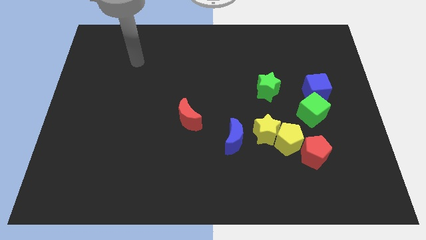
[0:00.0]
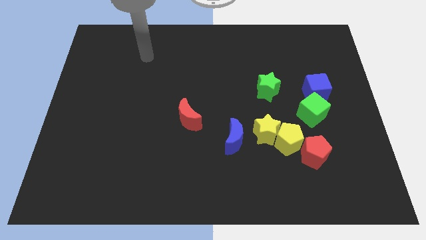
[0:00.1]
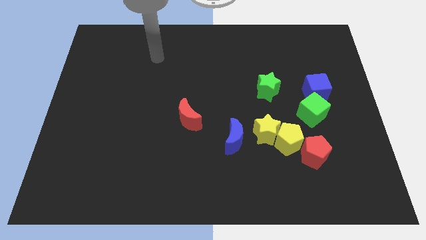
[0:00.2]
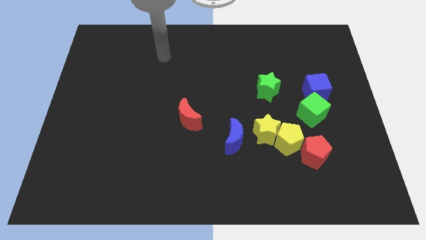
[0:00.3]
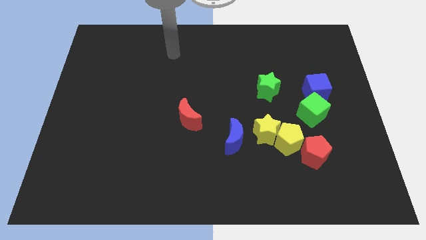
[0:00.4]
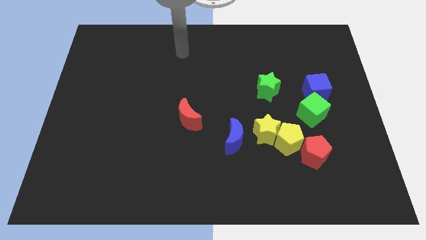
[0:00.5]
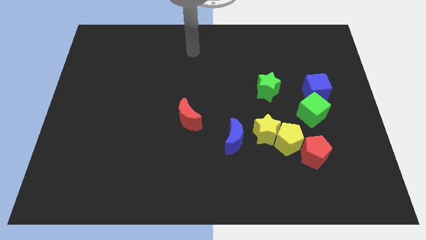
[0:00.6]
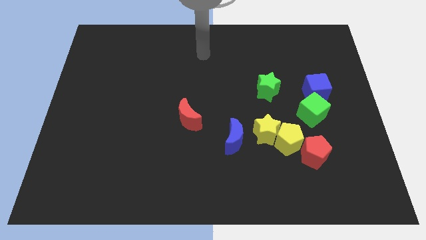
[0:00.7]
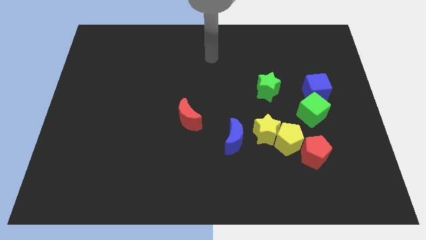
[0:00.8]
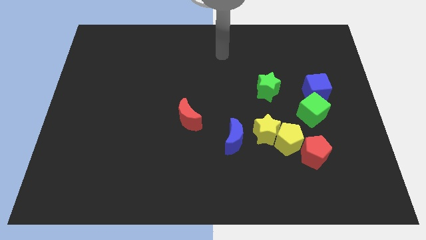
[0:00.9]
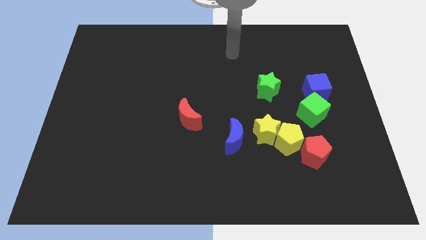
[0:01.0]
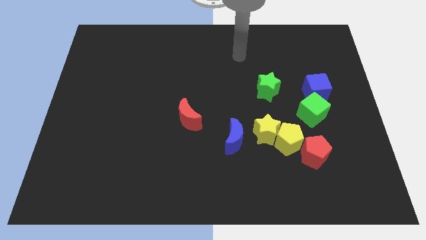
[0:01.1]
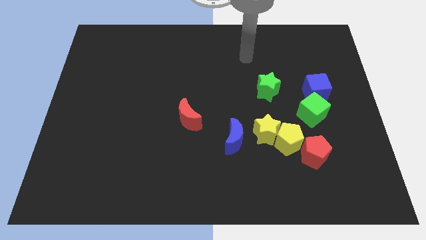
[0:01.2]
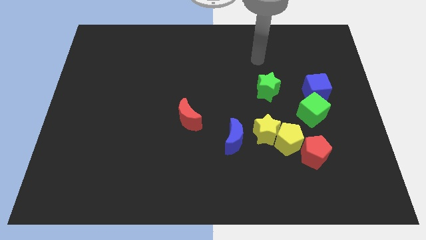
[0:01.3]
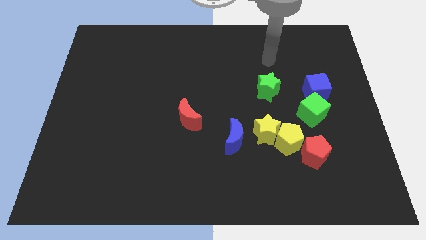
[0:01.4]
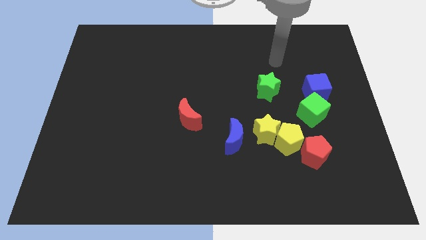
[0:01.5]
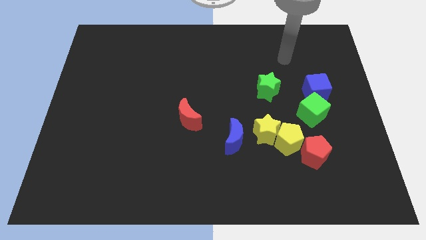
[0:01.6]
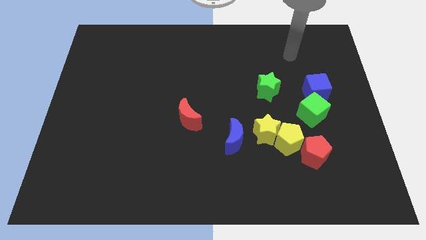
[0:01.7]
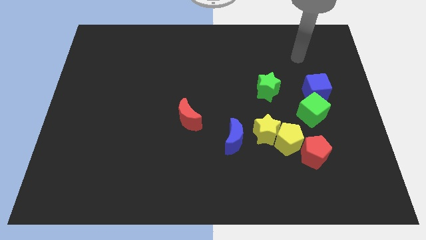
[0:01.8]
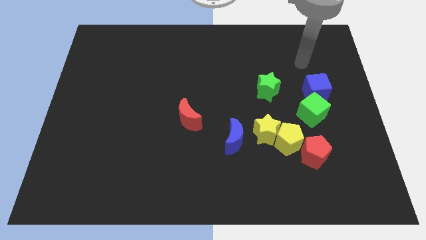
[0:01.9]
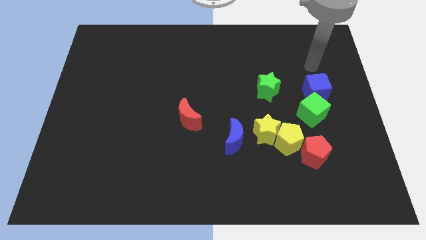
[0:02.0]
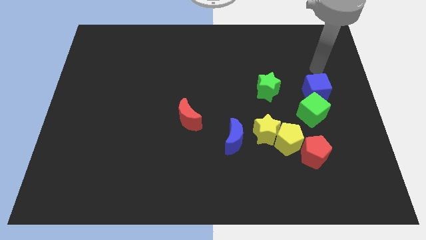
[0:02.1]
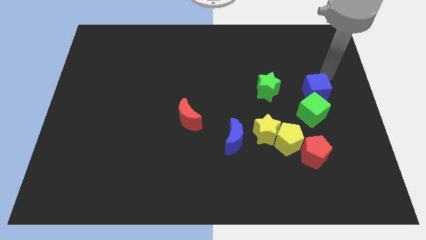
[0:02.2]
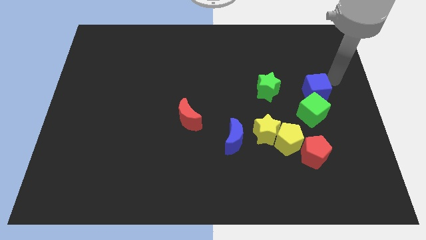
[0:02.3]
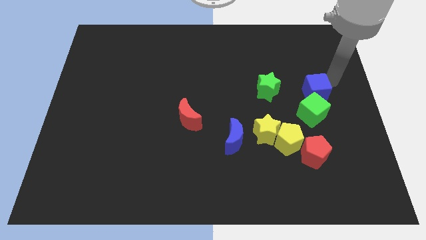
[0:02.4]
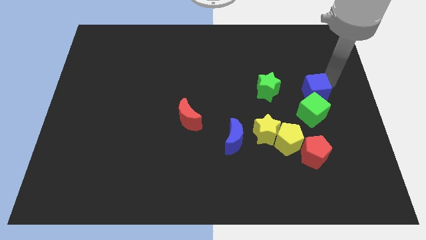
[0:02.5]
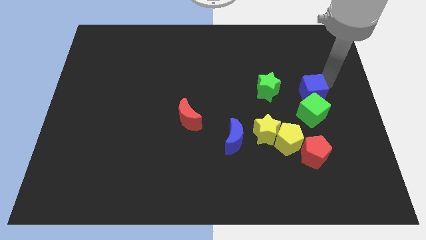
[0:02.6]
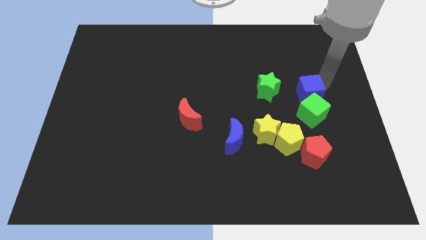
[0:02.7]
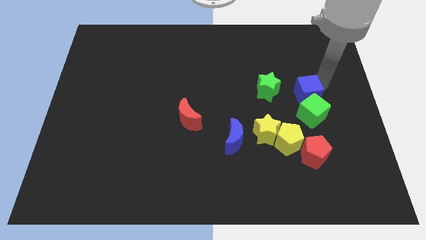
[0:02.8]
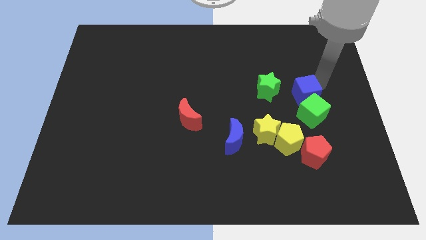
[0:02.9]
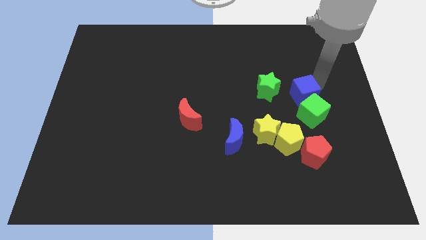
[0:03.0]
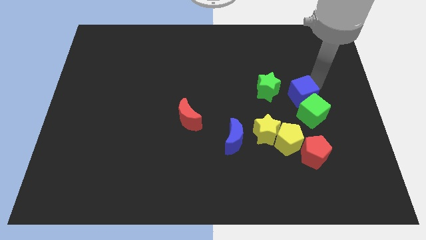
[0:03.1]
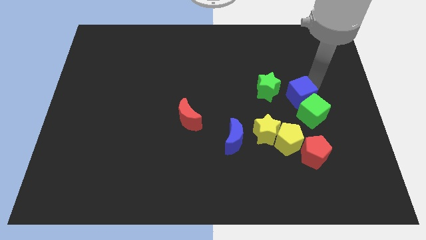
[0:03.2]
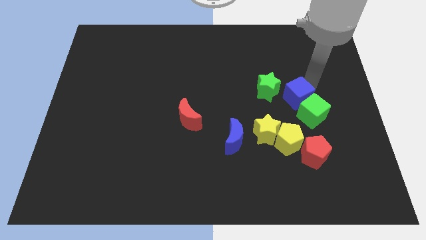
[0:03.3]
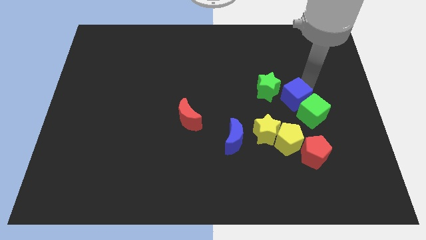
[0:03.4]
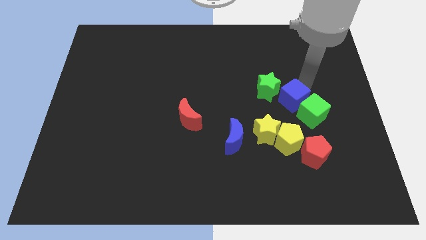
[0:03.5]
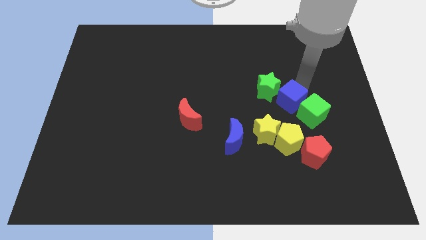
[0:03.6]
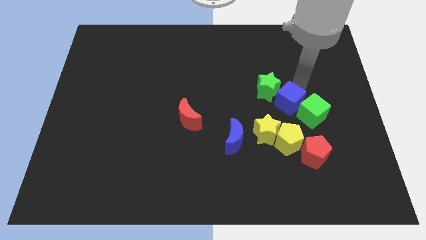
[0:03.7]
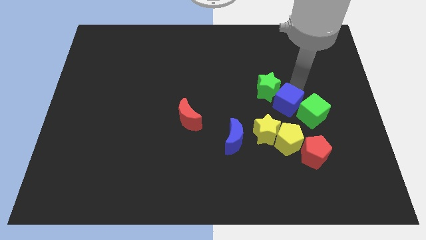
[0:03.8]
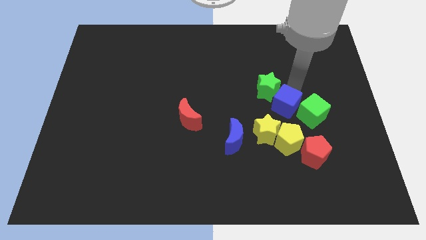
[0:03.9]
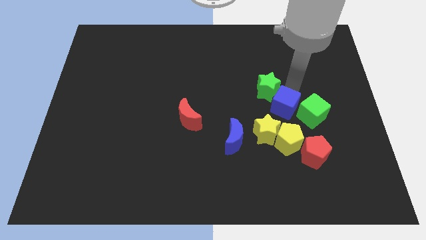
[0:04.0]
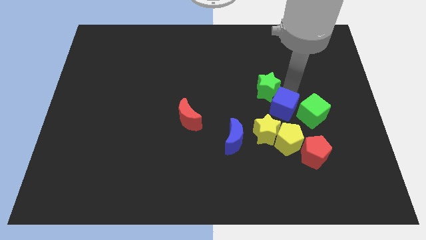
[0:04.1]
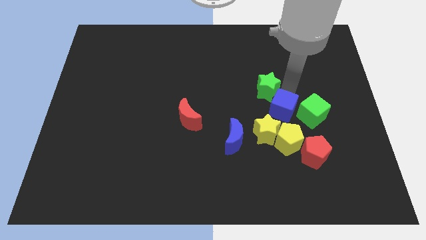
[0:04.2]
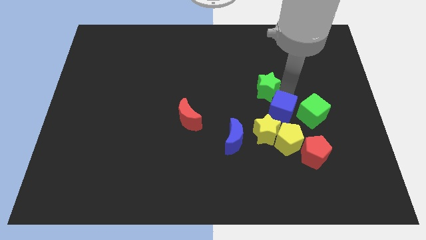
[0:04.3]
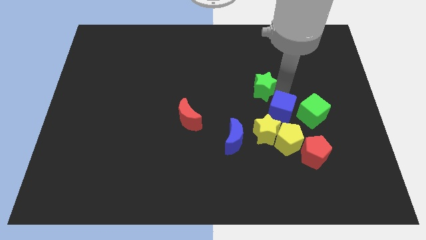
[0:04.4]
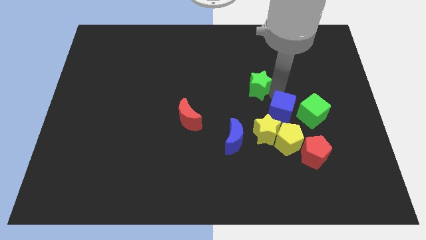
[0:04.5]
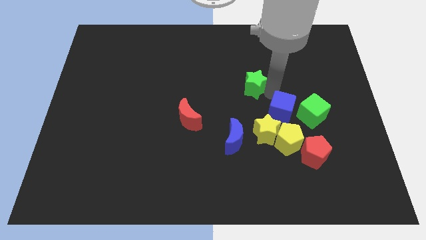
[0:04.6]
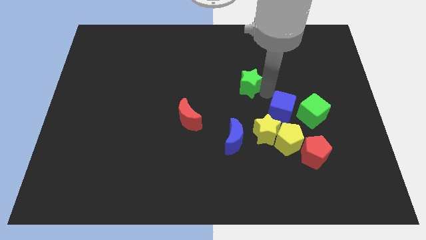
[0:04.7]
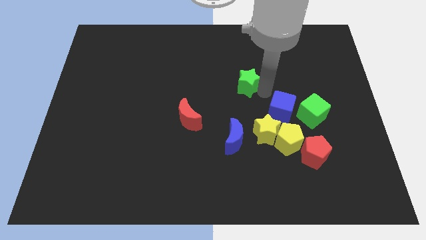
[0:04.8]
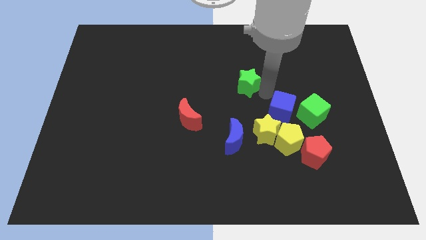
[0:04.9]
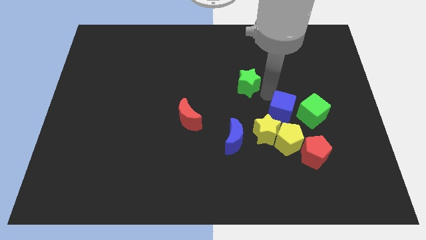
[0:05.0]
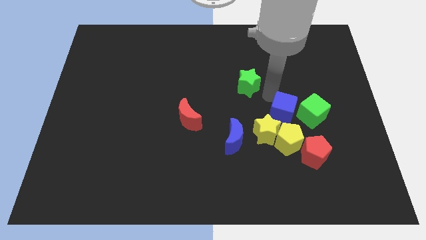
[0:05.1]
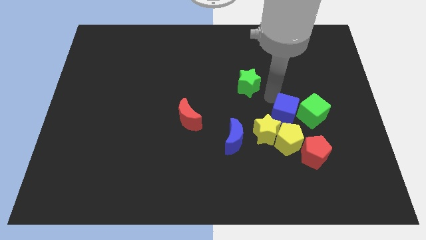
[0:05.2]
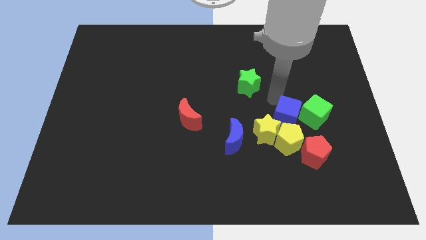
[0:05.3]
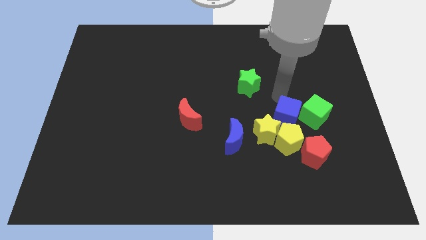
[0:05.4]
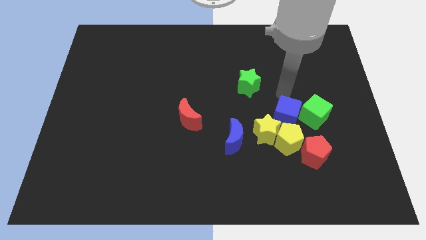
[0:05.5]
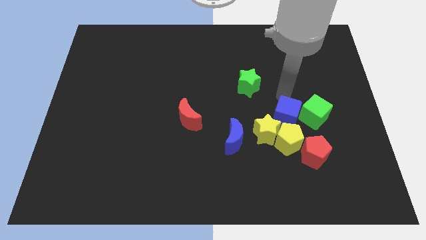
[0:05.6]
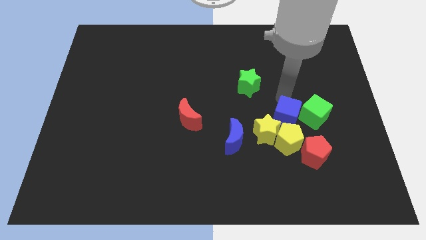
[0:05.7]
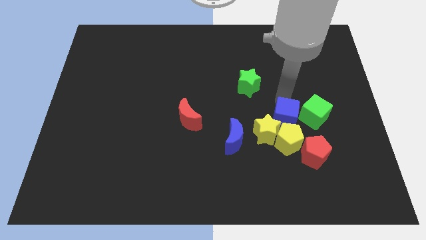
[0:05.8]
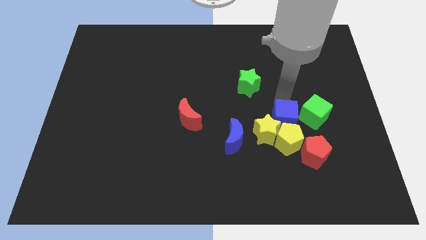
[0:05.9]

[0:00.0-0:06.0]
push the blue cube close to the yellow pentagon

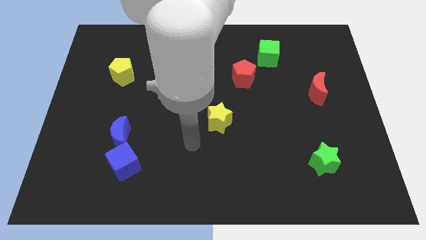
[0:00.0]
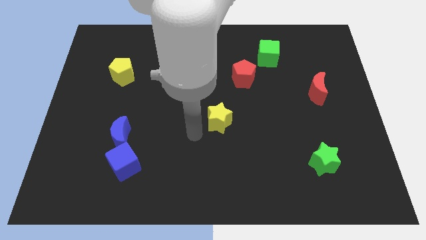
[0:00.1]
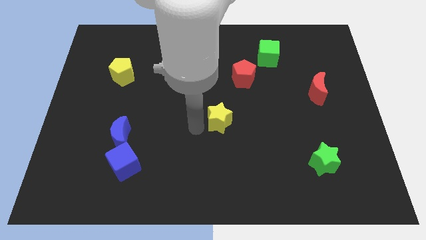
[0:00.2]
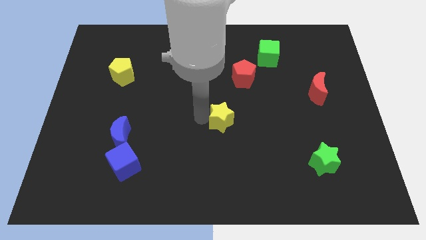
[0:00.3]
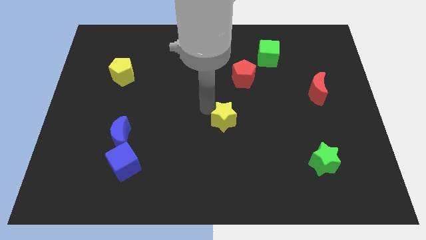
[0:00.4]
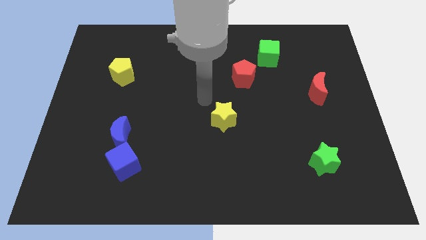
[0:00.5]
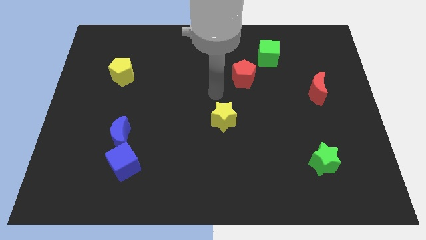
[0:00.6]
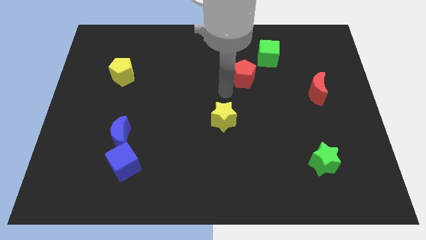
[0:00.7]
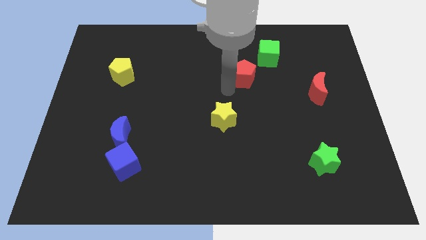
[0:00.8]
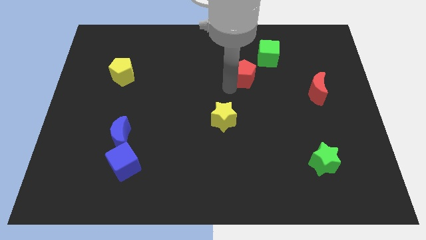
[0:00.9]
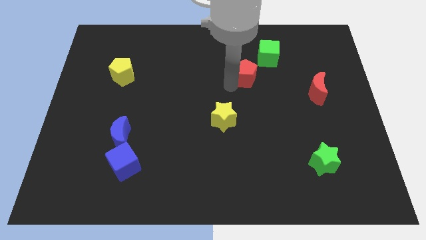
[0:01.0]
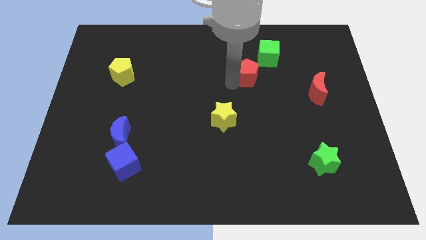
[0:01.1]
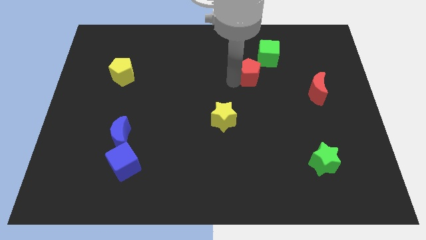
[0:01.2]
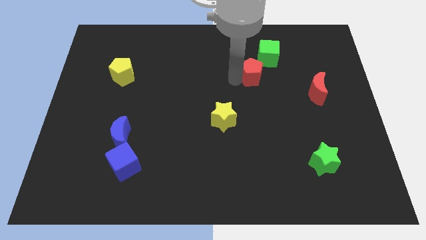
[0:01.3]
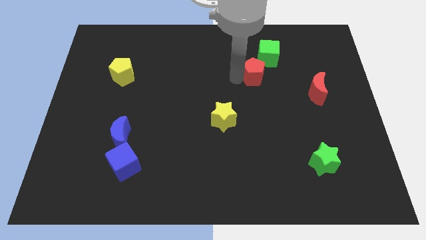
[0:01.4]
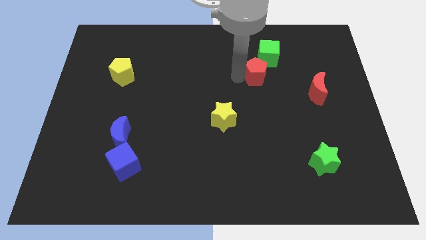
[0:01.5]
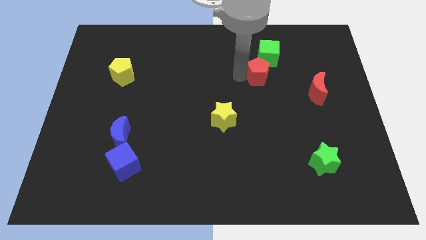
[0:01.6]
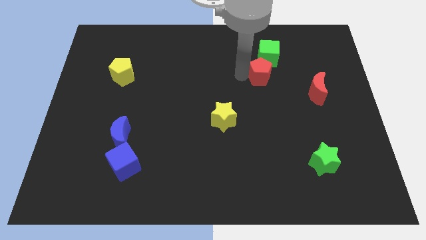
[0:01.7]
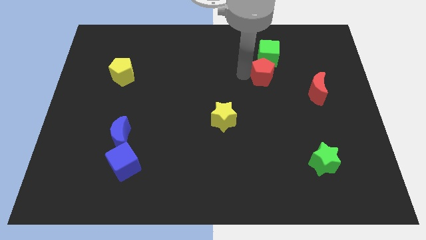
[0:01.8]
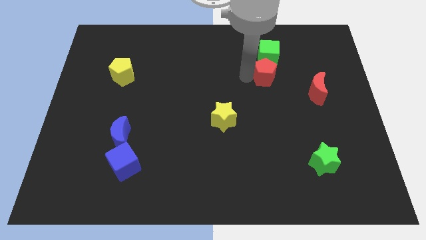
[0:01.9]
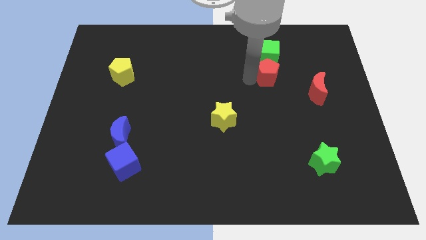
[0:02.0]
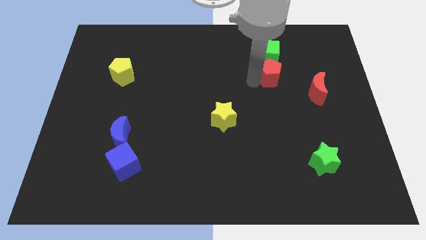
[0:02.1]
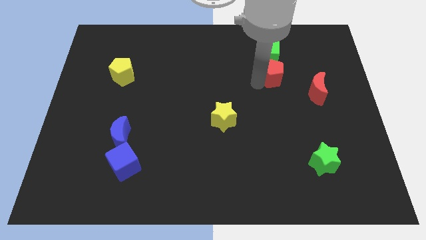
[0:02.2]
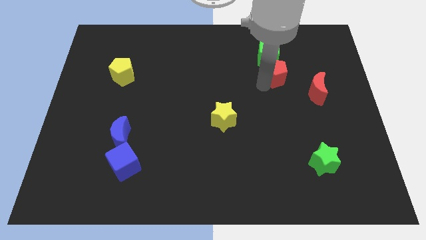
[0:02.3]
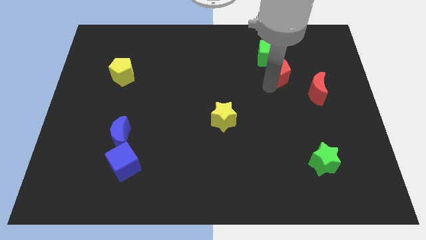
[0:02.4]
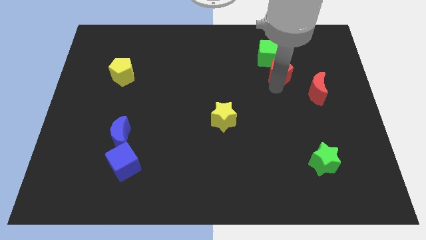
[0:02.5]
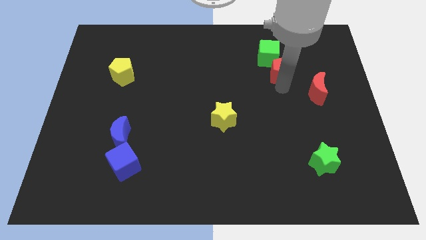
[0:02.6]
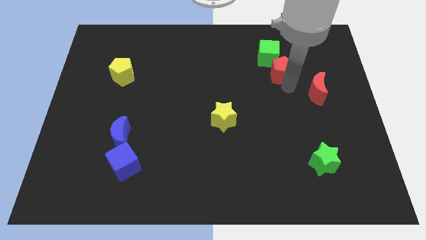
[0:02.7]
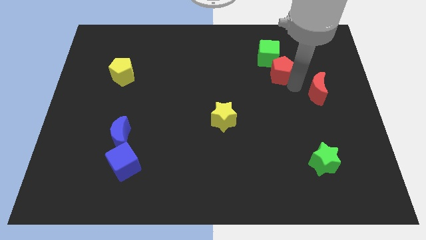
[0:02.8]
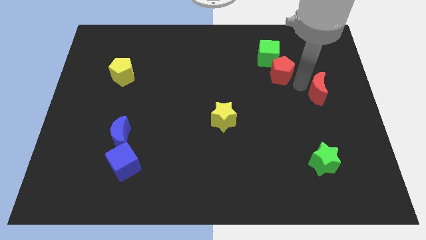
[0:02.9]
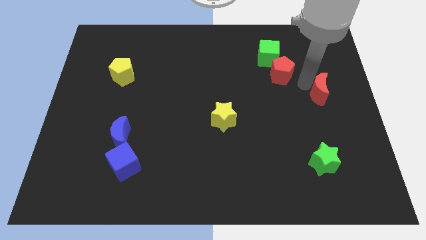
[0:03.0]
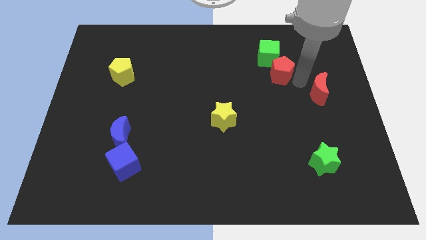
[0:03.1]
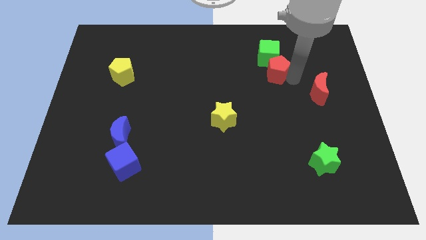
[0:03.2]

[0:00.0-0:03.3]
push the red pentagon next to the green cube
